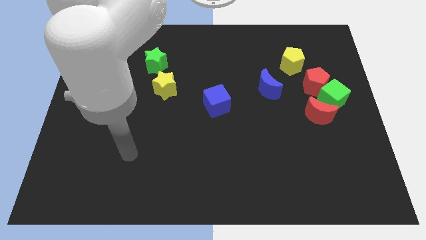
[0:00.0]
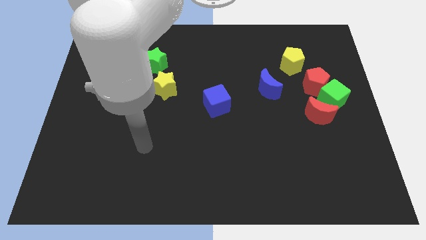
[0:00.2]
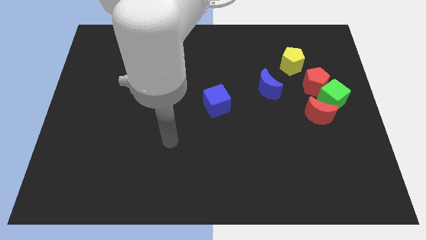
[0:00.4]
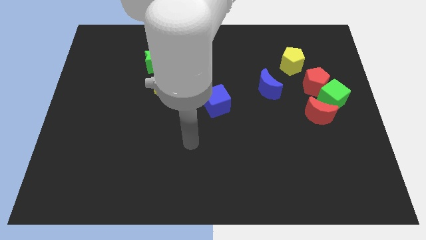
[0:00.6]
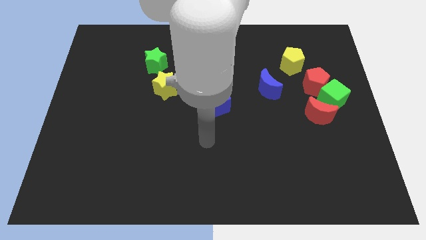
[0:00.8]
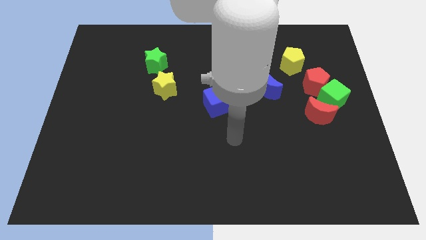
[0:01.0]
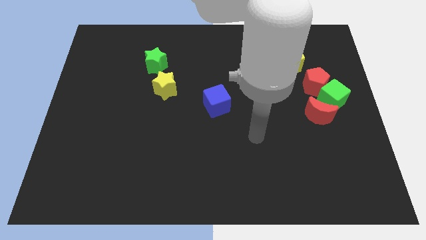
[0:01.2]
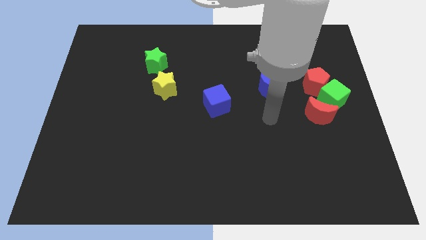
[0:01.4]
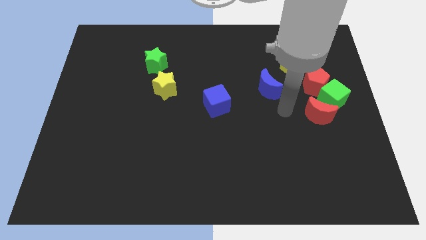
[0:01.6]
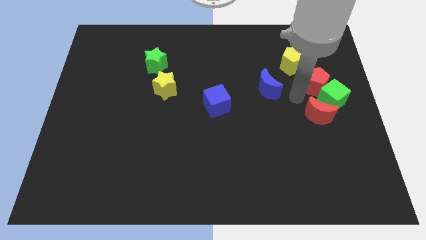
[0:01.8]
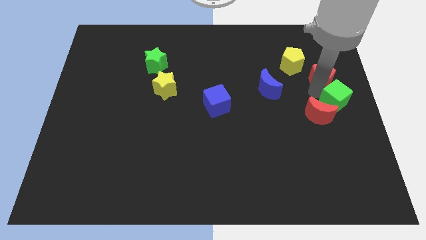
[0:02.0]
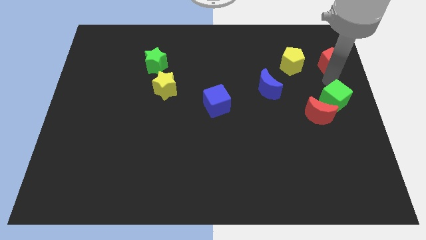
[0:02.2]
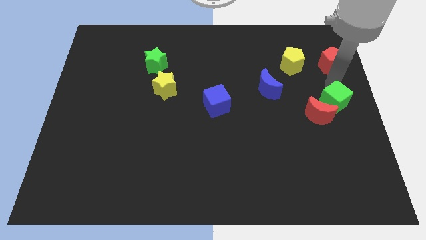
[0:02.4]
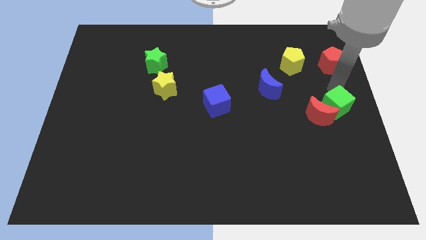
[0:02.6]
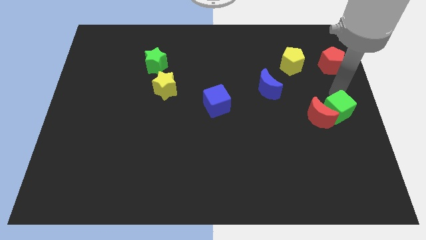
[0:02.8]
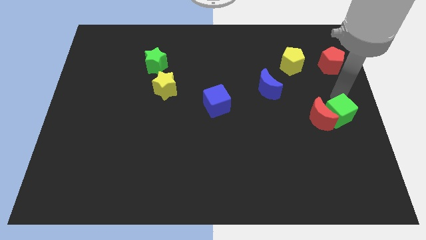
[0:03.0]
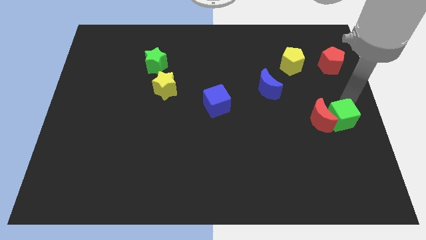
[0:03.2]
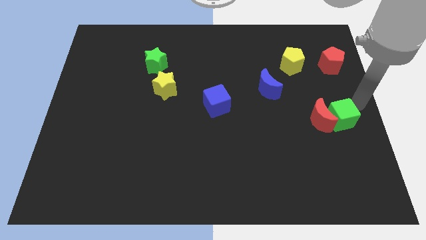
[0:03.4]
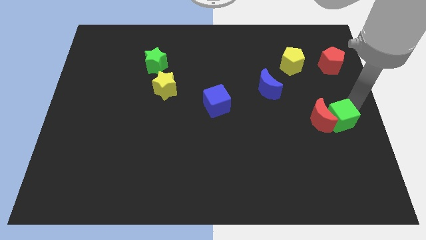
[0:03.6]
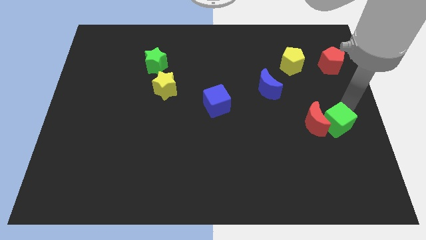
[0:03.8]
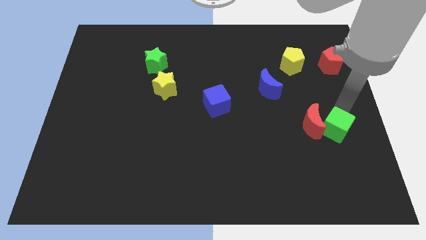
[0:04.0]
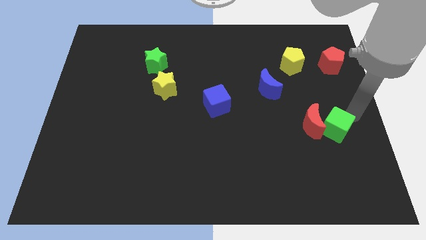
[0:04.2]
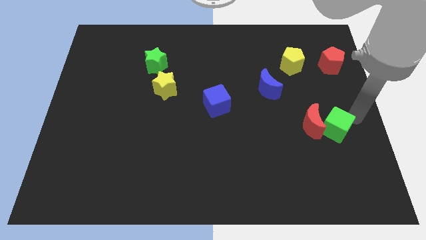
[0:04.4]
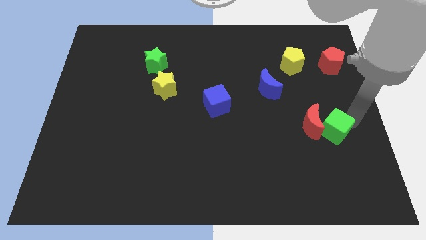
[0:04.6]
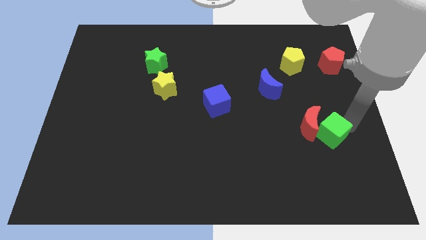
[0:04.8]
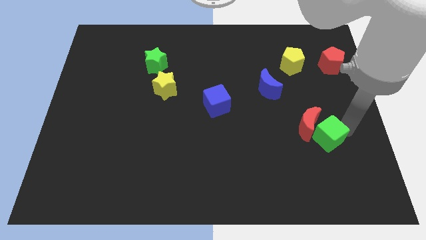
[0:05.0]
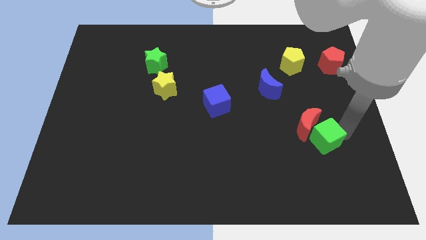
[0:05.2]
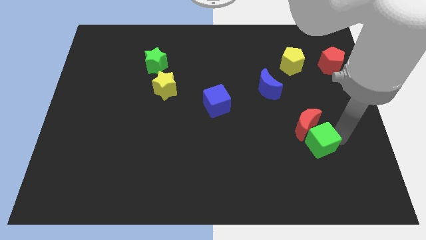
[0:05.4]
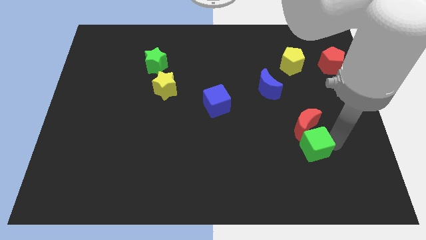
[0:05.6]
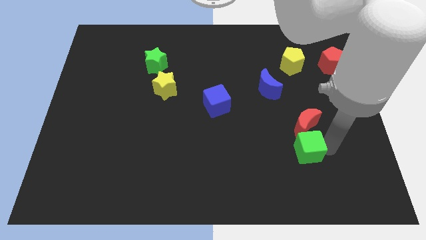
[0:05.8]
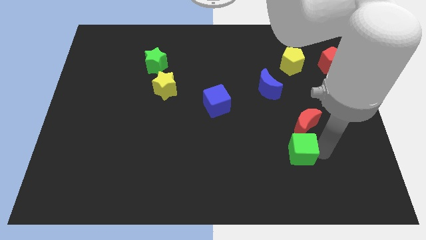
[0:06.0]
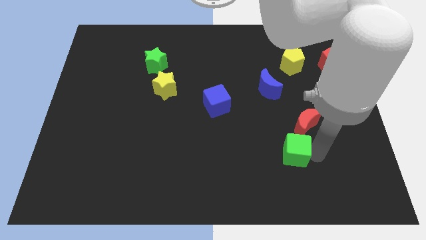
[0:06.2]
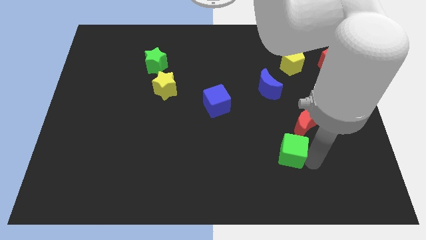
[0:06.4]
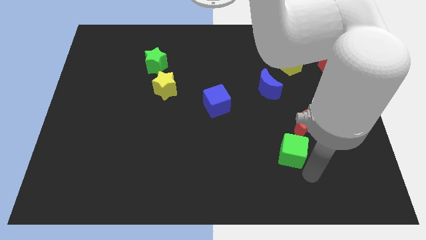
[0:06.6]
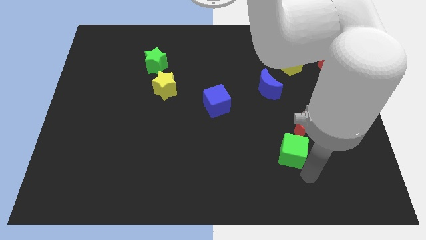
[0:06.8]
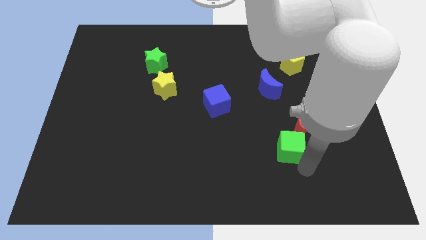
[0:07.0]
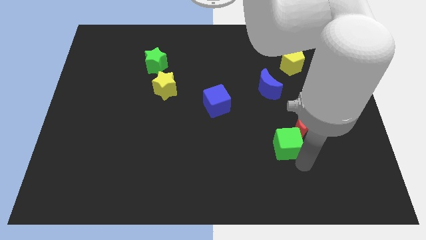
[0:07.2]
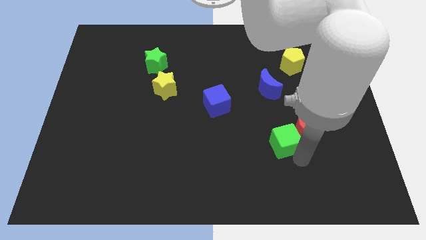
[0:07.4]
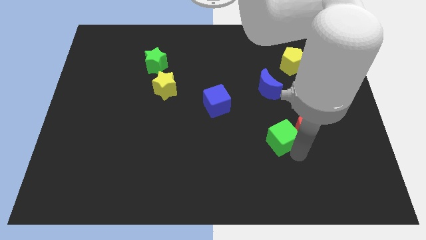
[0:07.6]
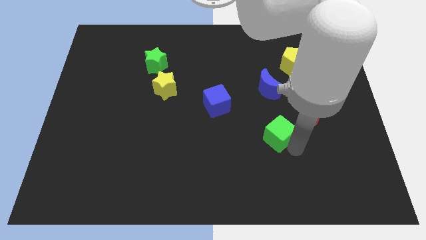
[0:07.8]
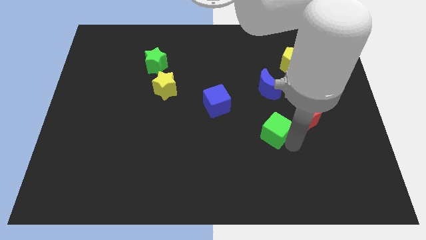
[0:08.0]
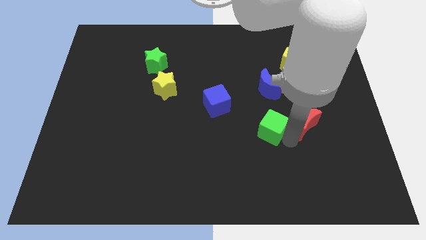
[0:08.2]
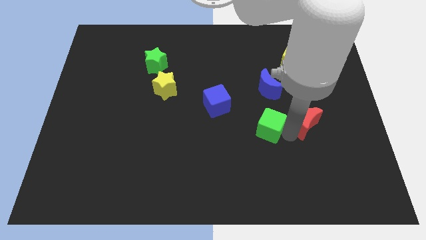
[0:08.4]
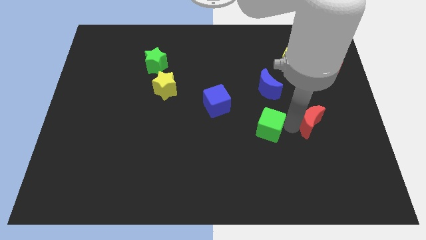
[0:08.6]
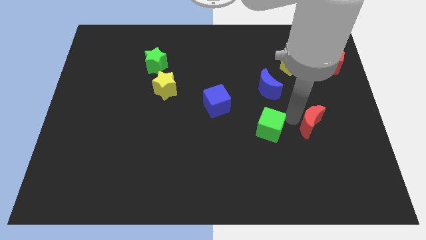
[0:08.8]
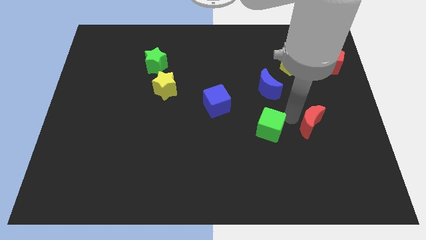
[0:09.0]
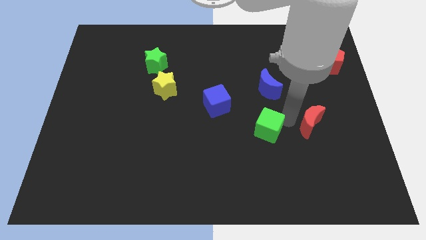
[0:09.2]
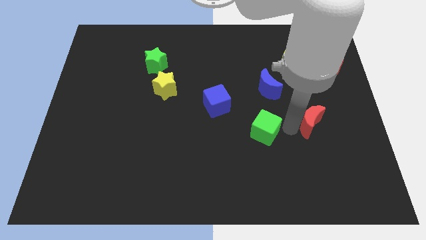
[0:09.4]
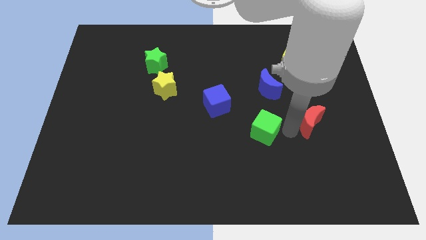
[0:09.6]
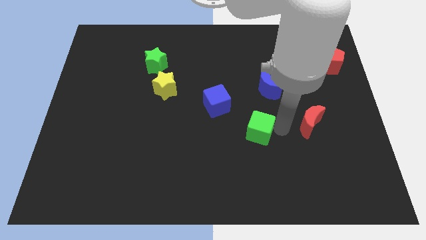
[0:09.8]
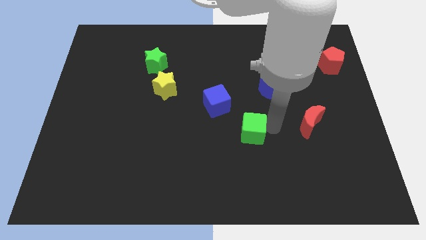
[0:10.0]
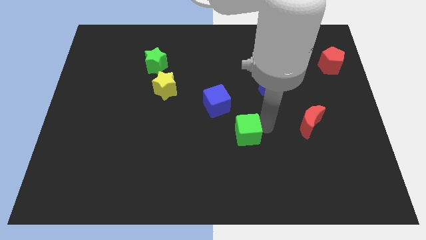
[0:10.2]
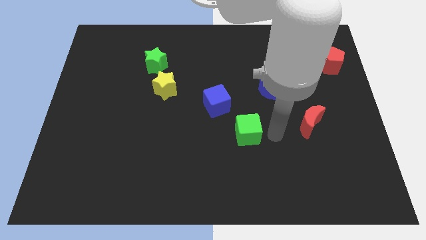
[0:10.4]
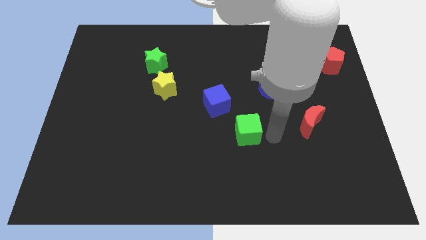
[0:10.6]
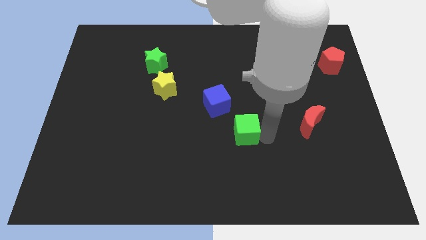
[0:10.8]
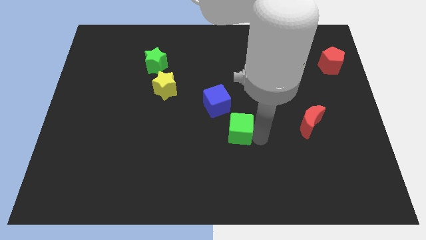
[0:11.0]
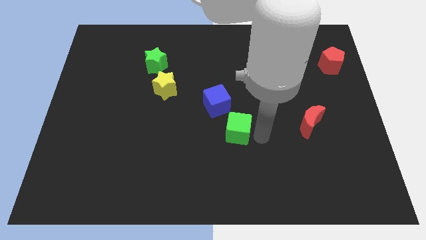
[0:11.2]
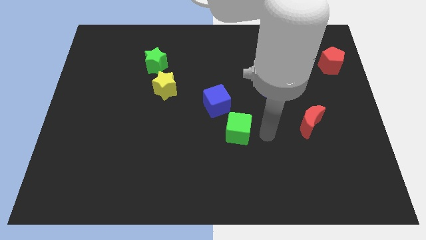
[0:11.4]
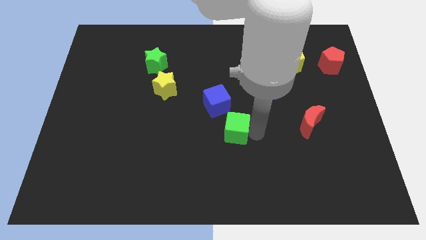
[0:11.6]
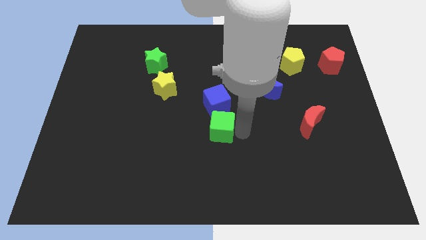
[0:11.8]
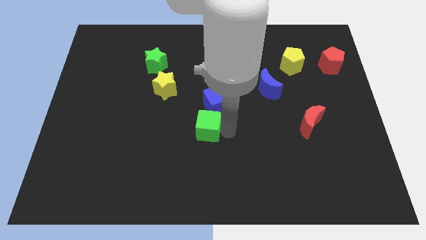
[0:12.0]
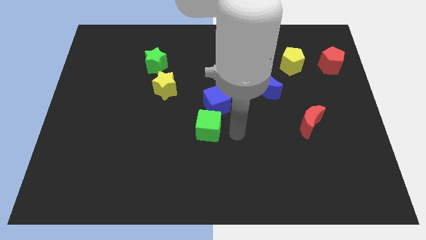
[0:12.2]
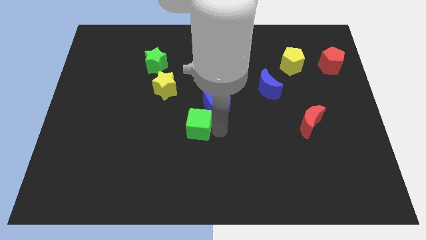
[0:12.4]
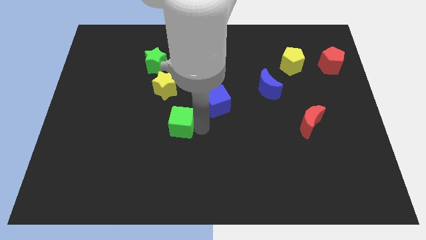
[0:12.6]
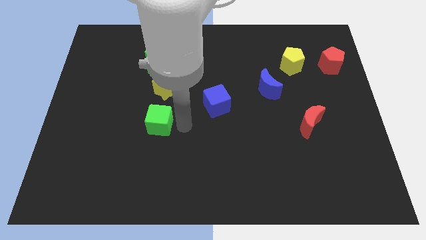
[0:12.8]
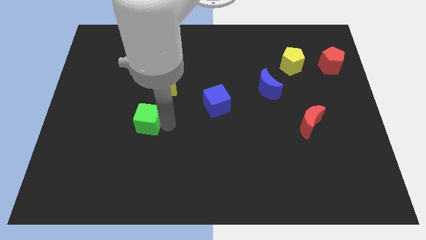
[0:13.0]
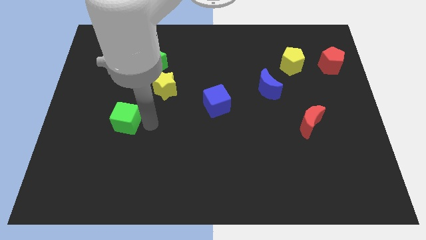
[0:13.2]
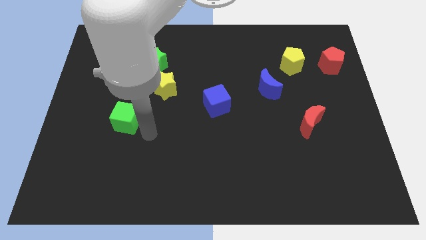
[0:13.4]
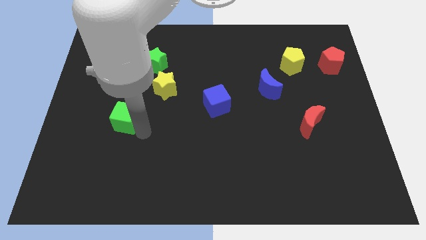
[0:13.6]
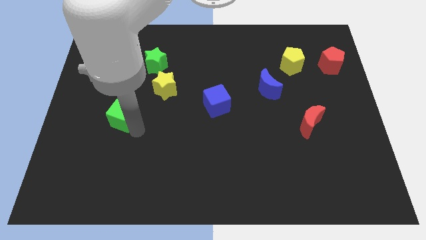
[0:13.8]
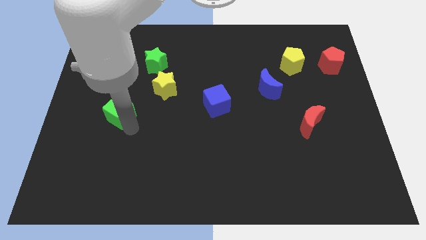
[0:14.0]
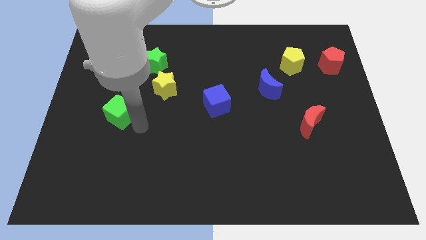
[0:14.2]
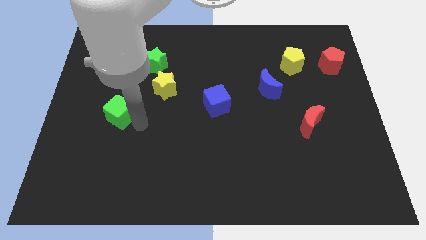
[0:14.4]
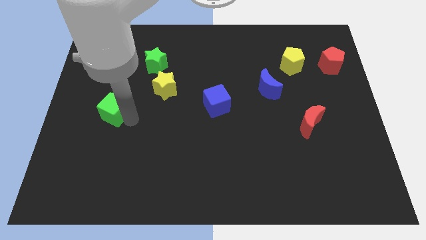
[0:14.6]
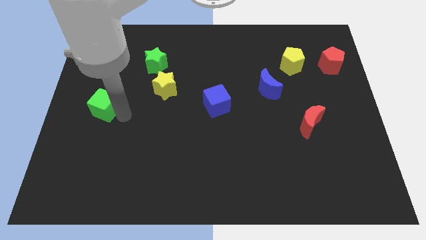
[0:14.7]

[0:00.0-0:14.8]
move the green cube to the left side of the board
